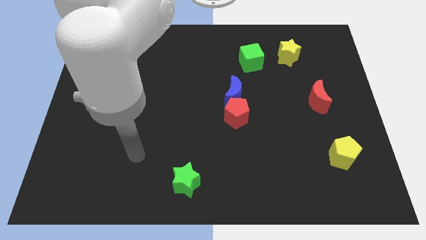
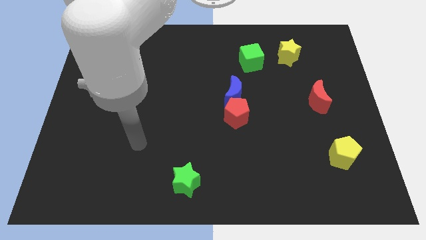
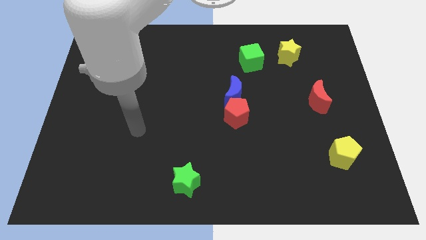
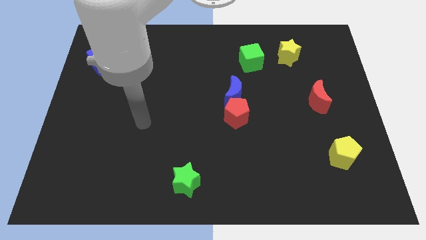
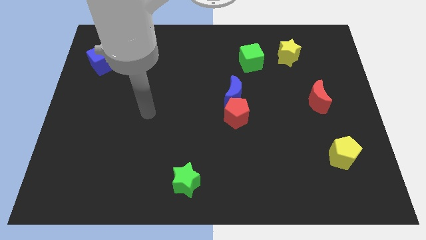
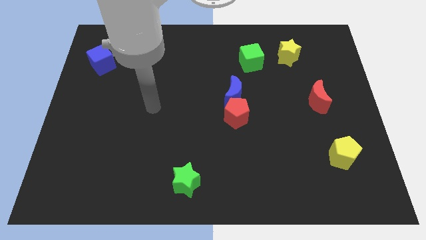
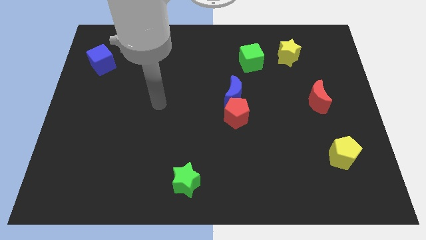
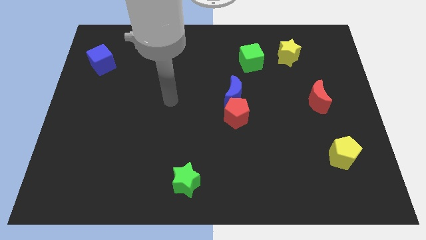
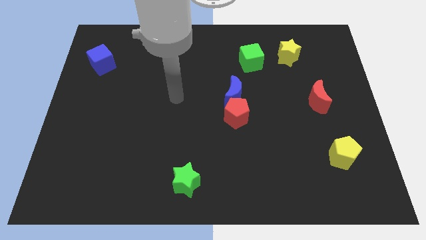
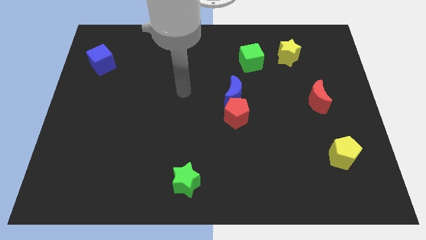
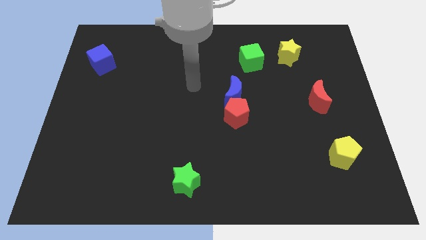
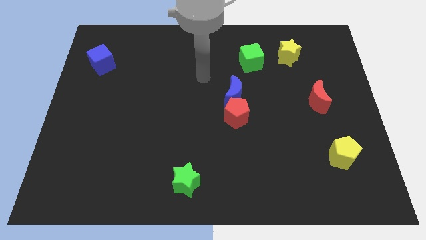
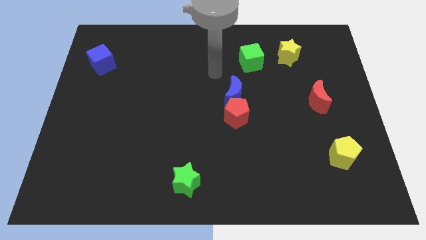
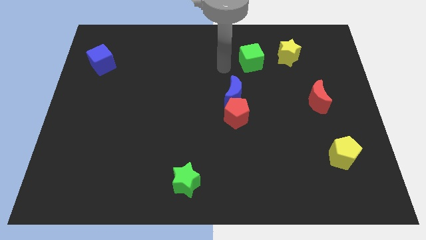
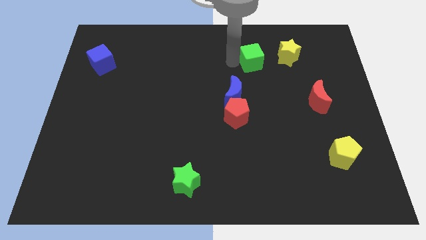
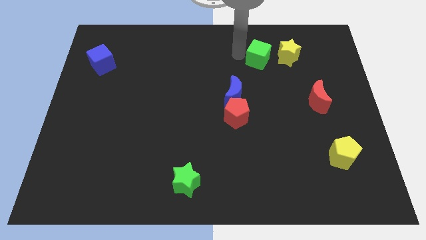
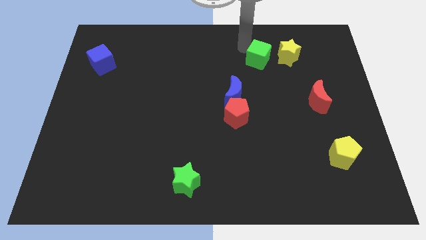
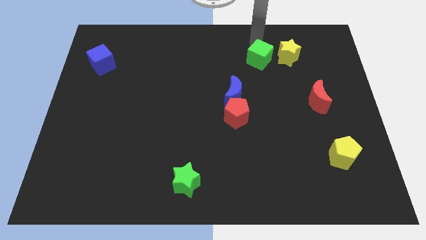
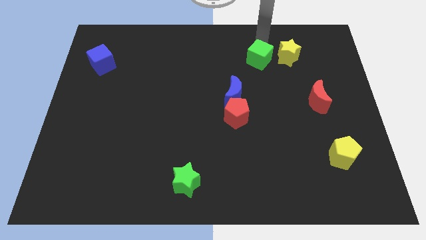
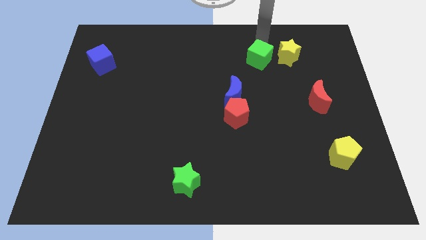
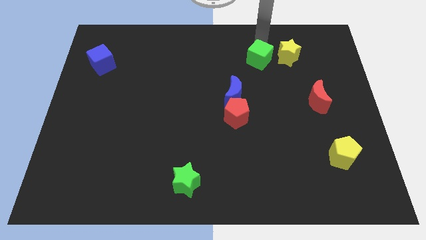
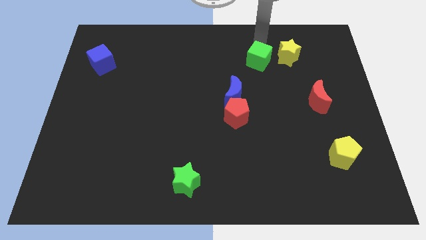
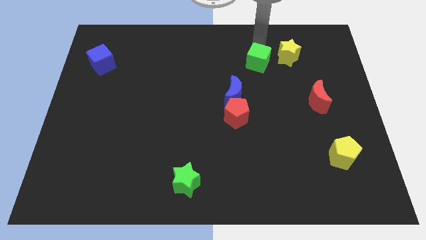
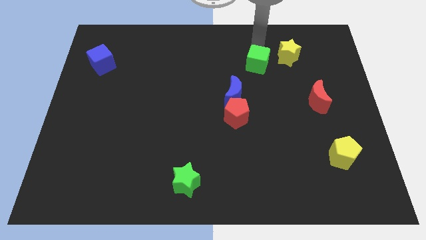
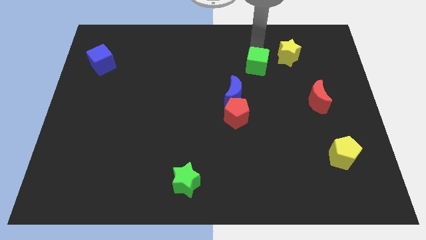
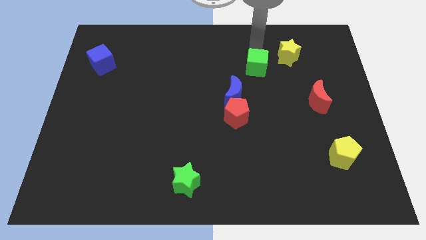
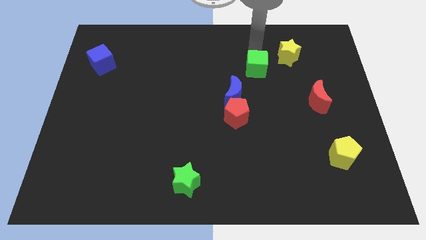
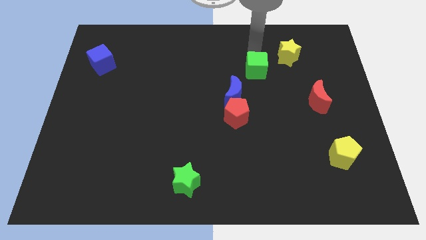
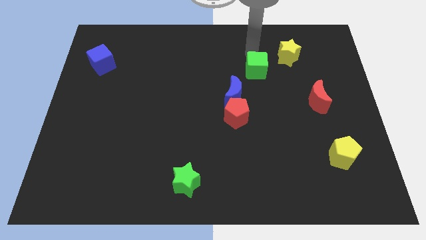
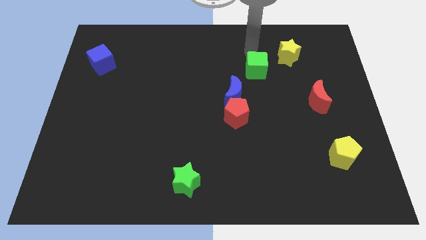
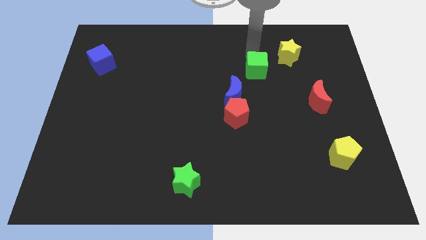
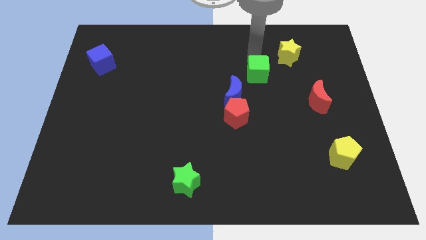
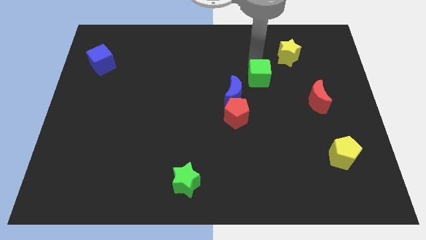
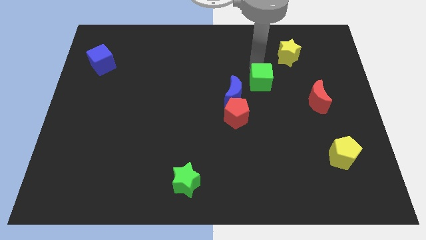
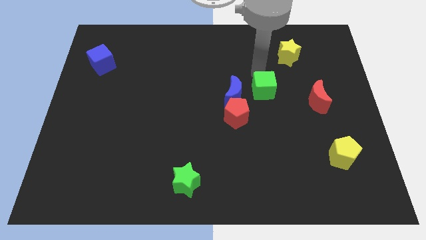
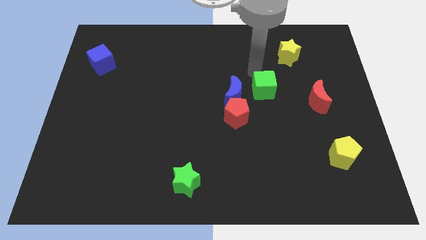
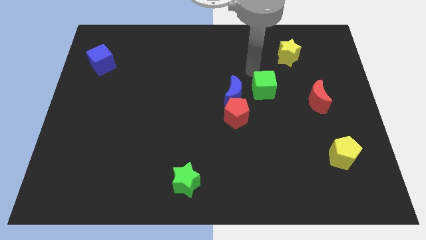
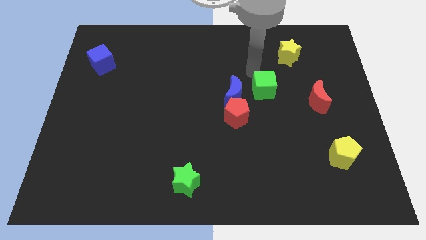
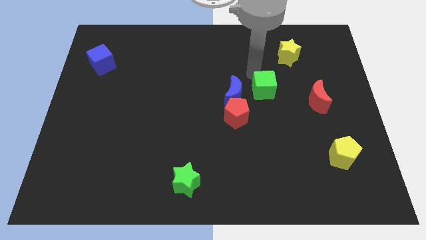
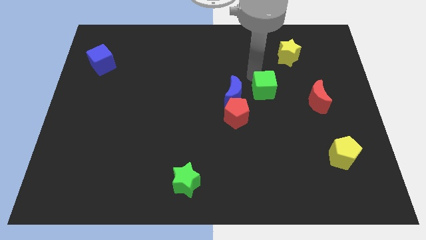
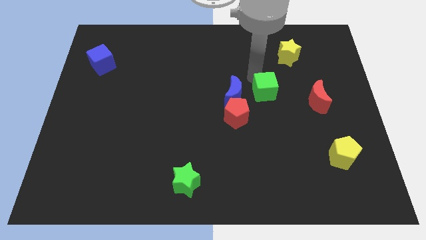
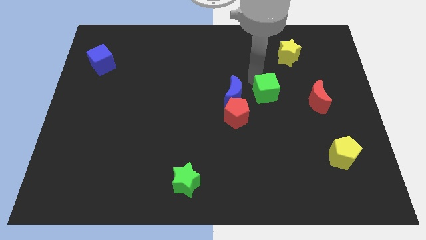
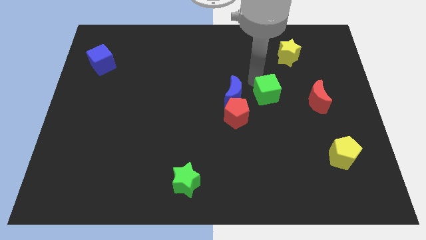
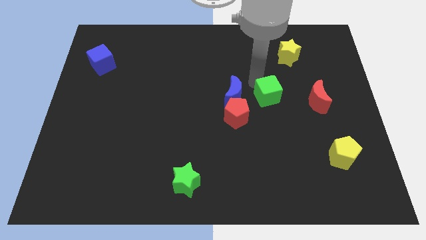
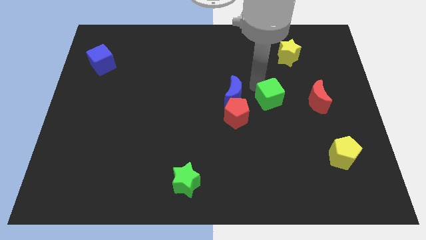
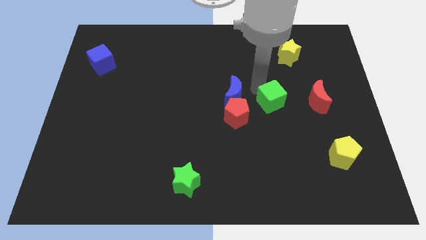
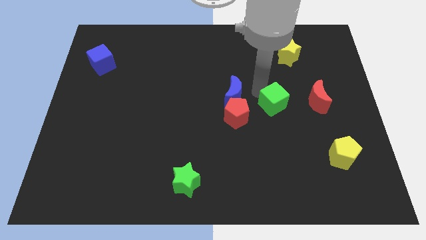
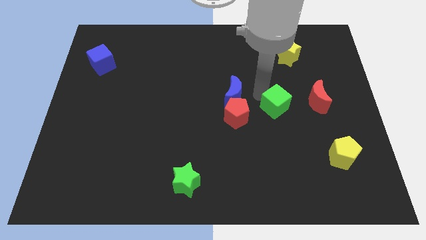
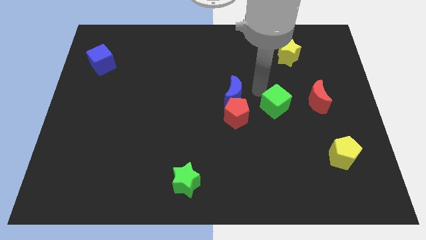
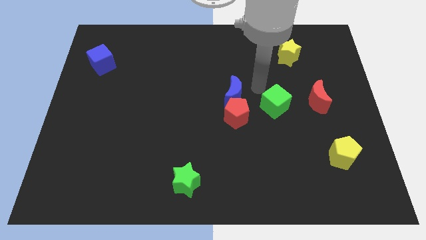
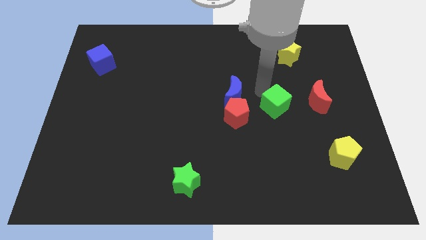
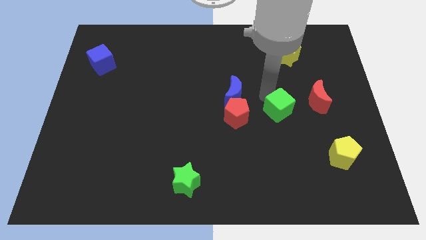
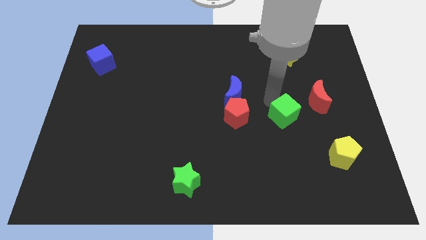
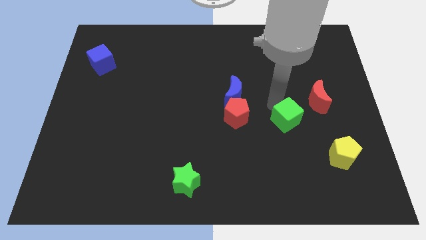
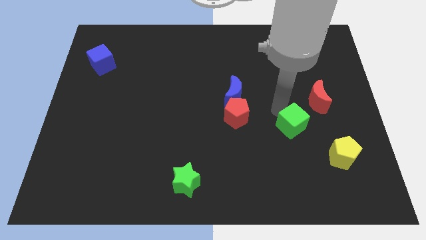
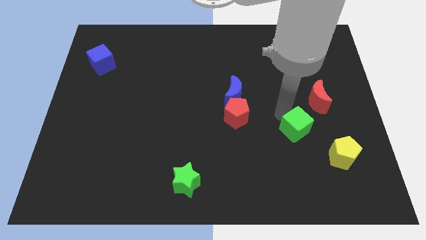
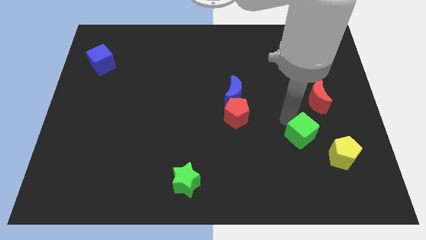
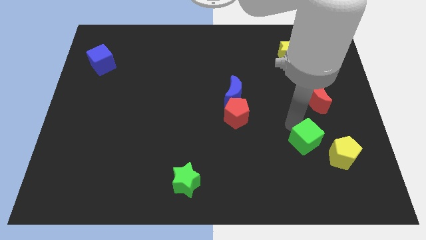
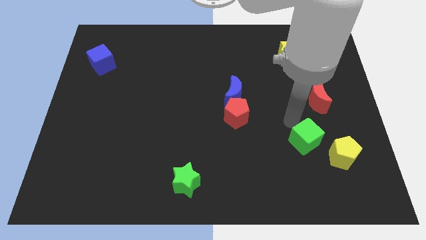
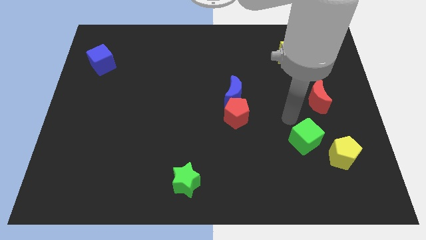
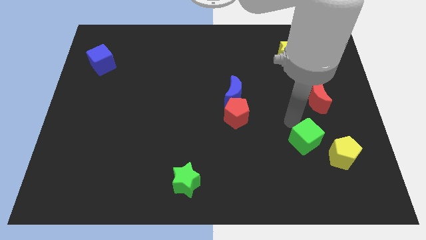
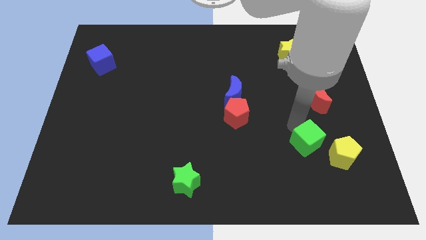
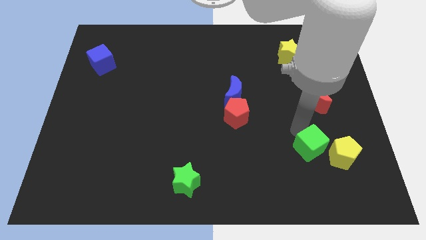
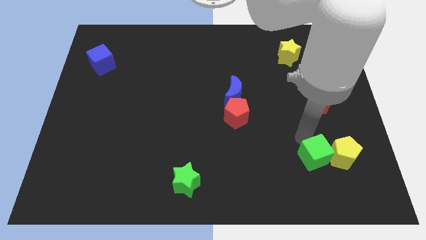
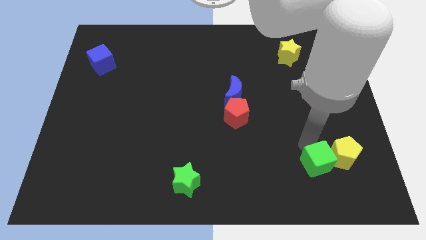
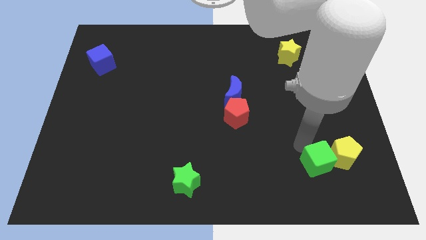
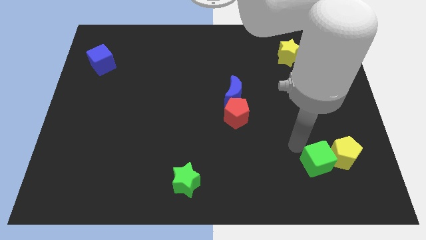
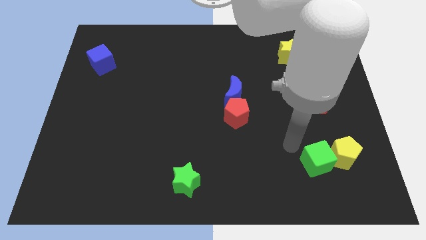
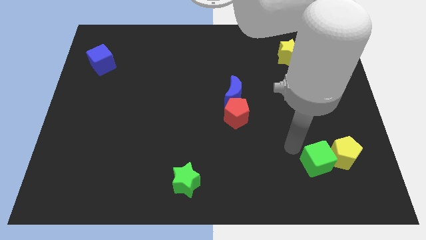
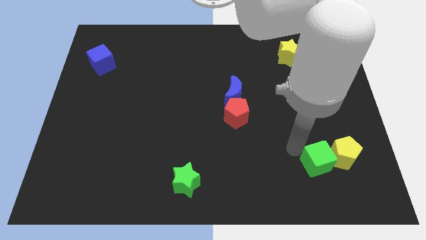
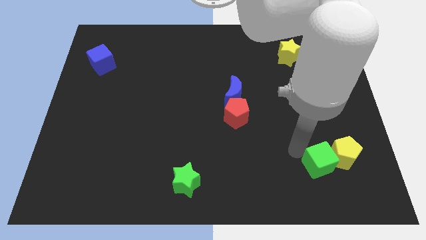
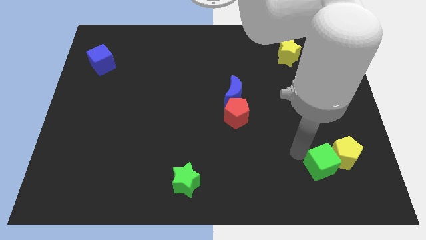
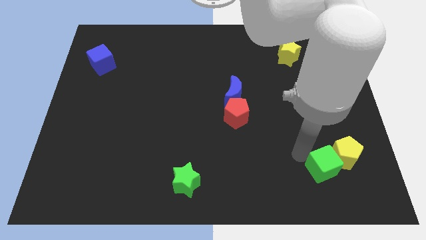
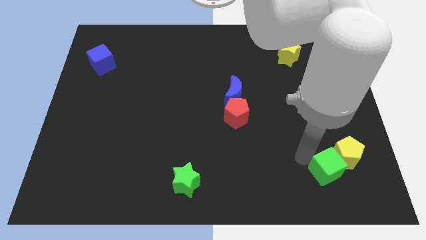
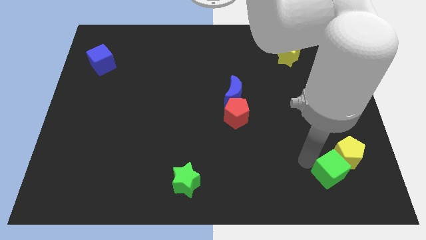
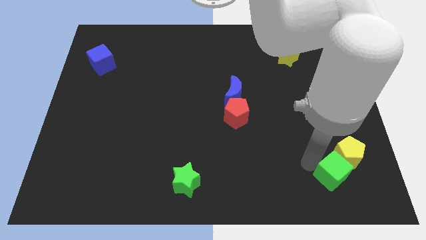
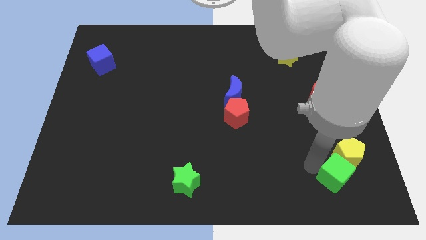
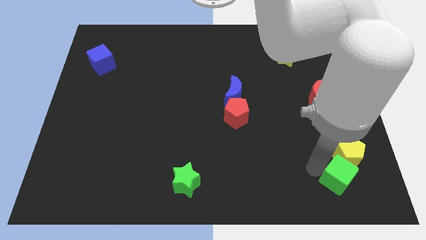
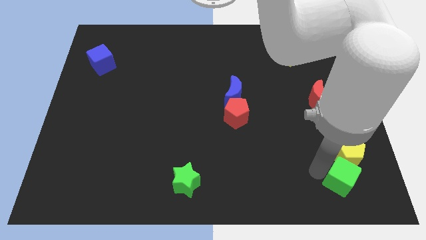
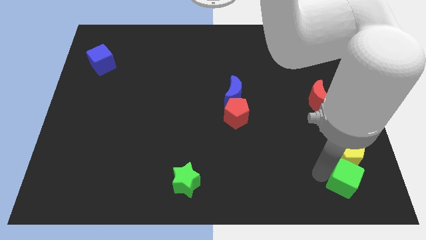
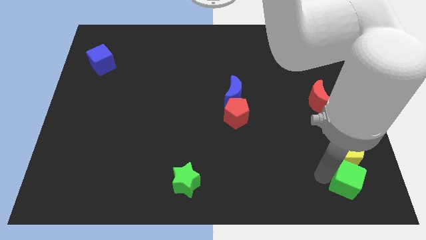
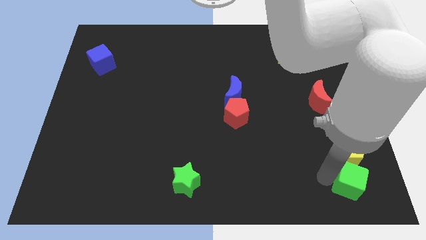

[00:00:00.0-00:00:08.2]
move the green cube to the bottom right corner
